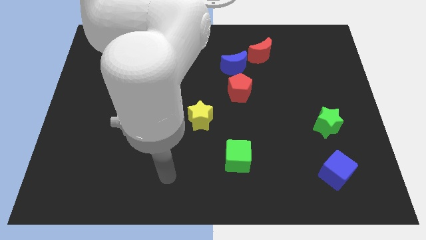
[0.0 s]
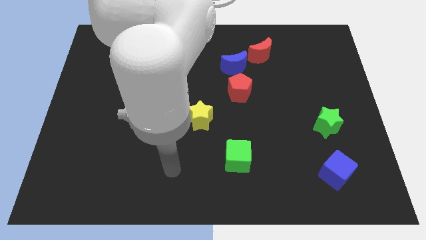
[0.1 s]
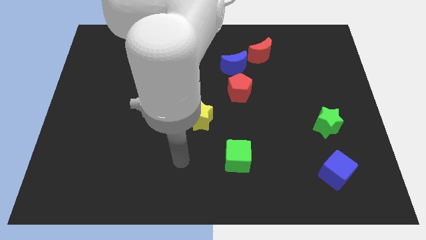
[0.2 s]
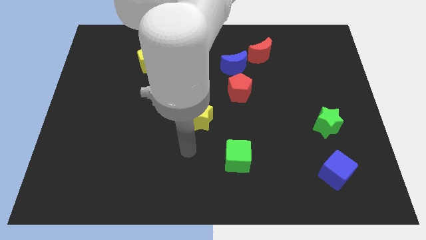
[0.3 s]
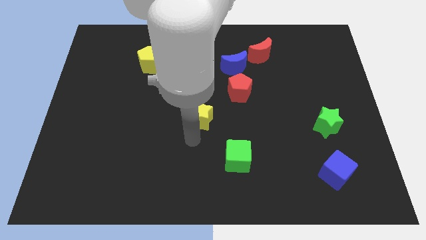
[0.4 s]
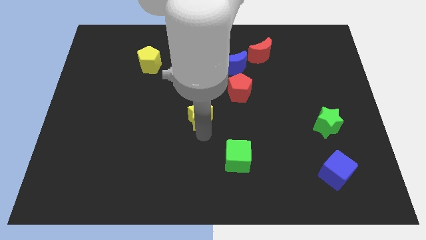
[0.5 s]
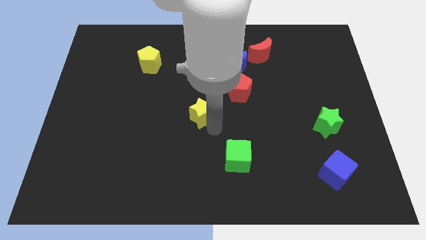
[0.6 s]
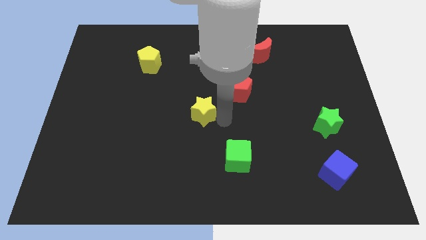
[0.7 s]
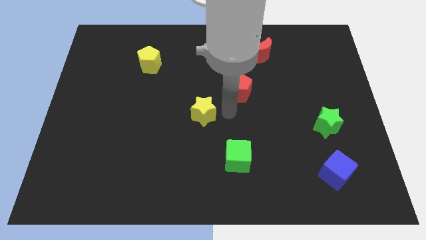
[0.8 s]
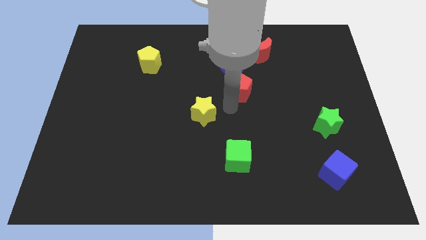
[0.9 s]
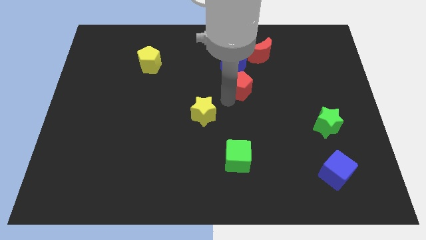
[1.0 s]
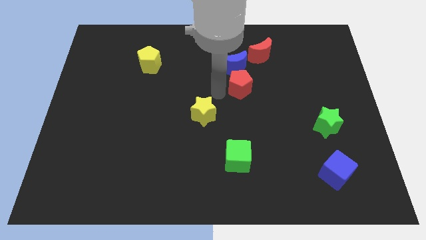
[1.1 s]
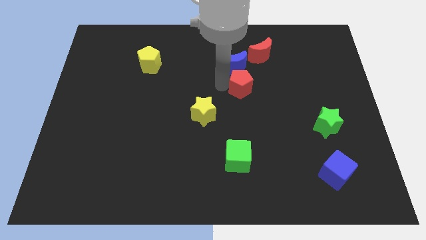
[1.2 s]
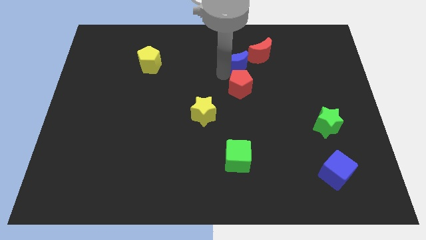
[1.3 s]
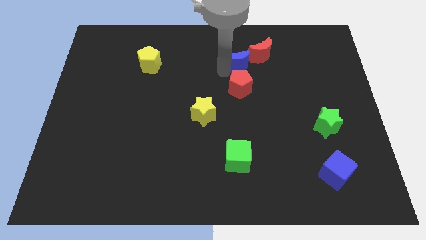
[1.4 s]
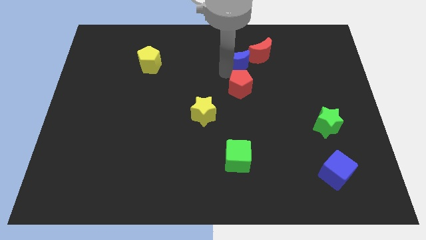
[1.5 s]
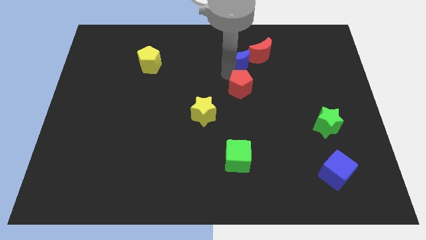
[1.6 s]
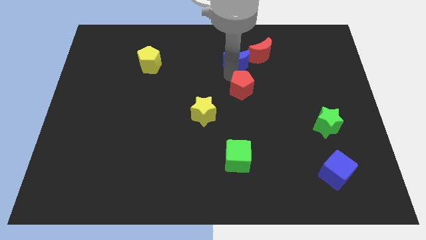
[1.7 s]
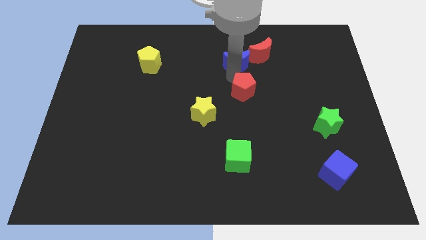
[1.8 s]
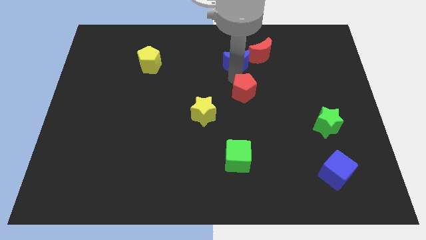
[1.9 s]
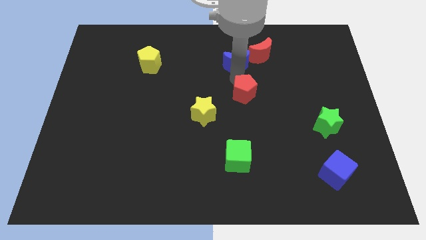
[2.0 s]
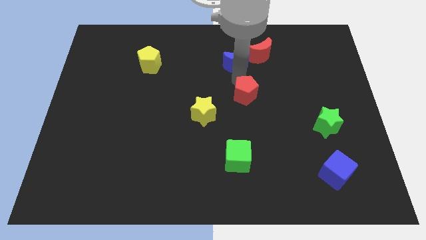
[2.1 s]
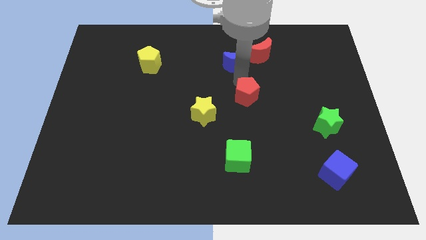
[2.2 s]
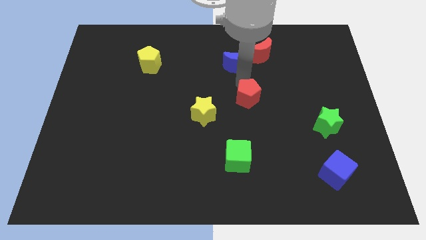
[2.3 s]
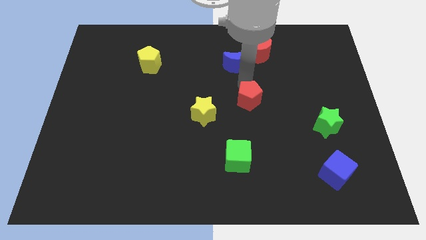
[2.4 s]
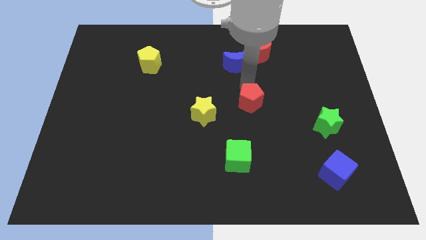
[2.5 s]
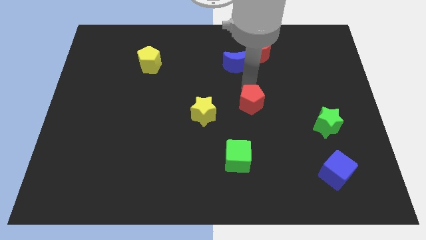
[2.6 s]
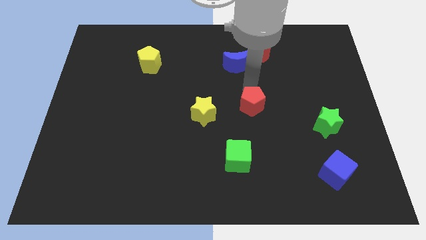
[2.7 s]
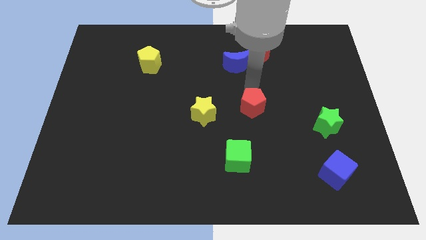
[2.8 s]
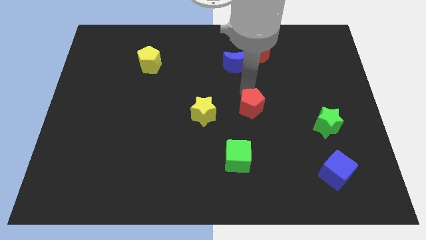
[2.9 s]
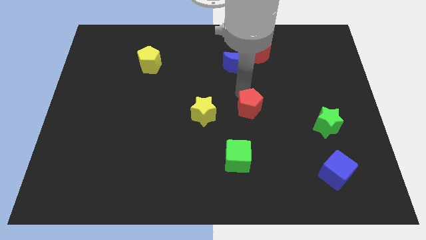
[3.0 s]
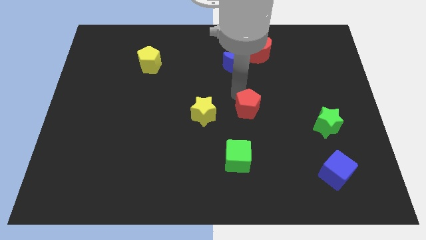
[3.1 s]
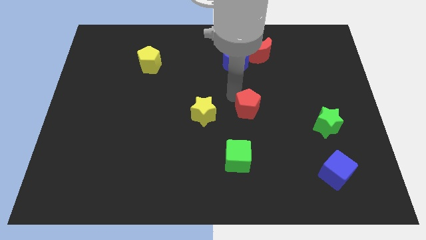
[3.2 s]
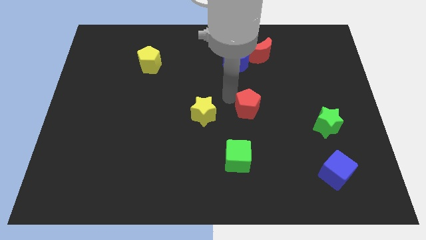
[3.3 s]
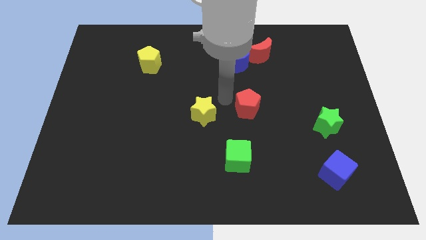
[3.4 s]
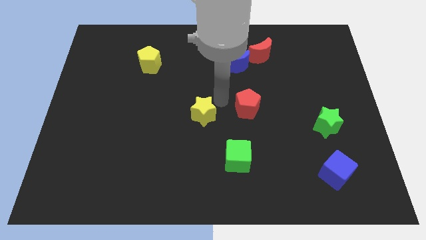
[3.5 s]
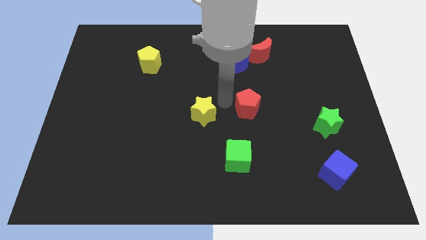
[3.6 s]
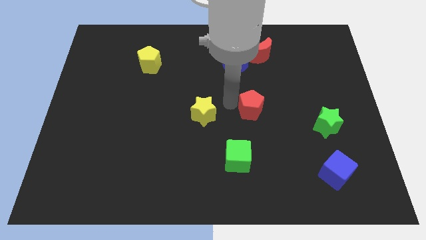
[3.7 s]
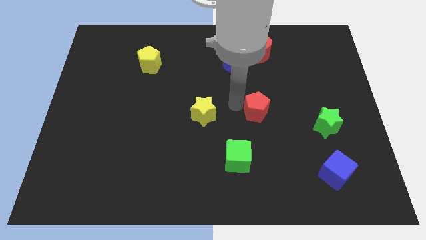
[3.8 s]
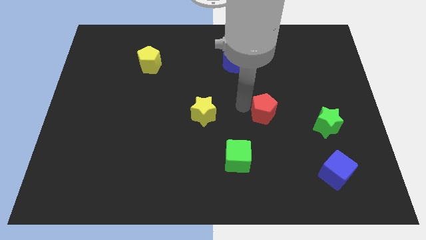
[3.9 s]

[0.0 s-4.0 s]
slide the red pentagon just left of the green star

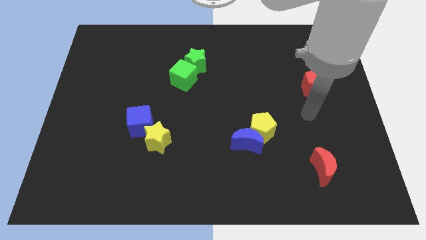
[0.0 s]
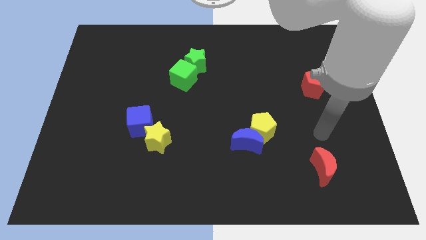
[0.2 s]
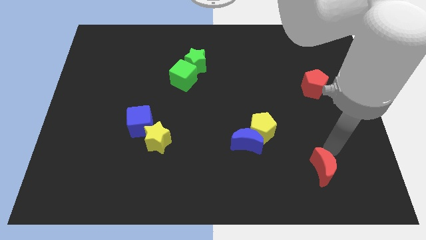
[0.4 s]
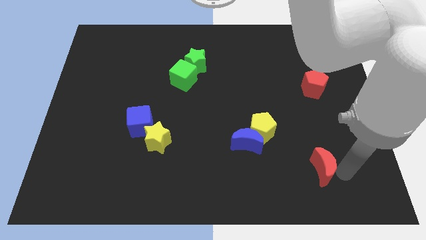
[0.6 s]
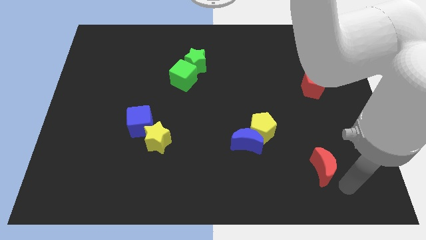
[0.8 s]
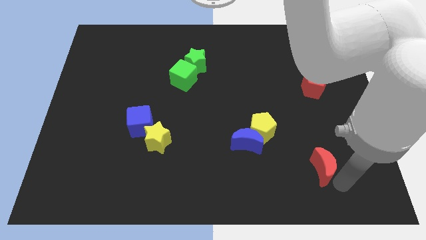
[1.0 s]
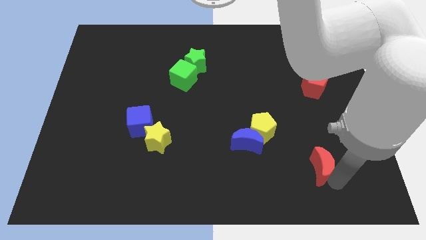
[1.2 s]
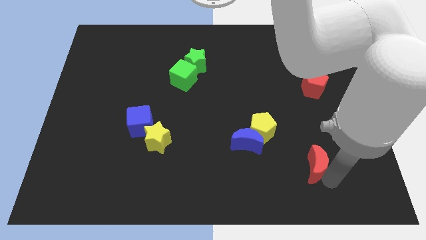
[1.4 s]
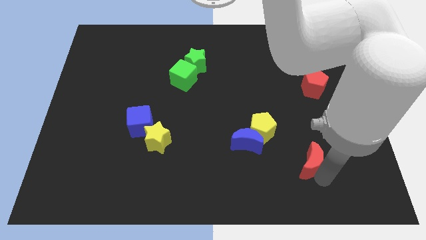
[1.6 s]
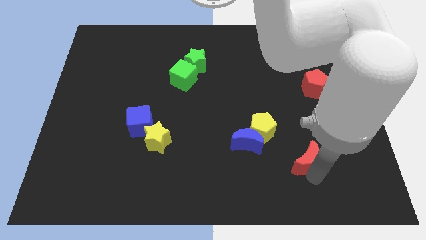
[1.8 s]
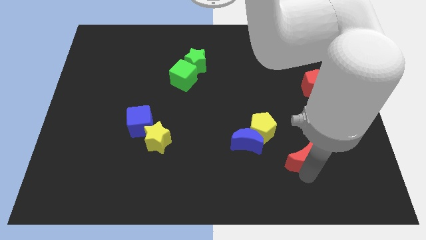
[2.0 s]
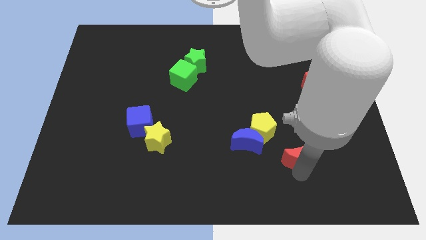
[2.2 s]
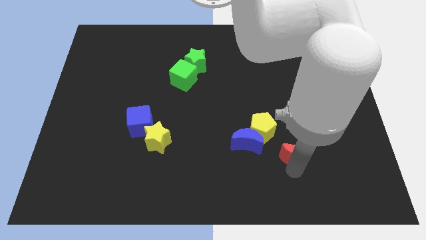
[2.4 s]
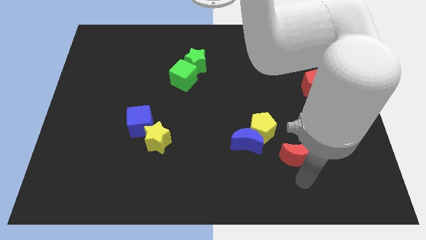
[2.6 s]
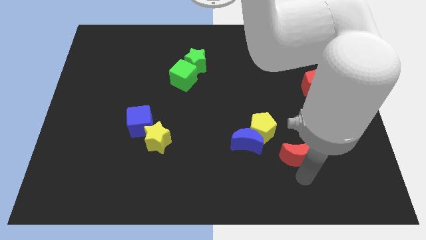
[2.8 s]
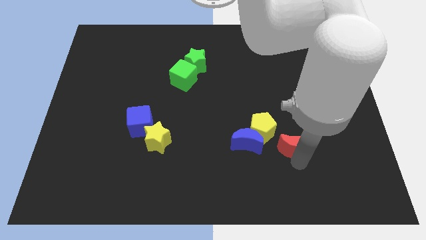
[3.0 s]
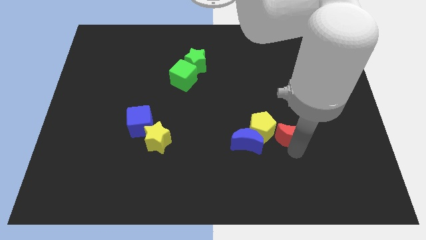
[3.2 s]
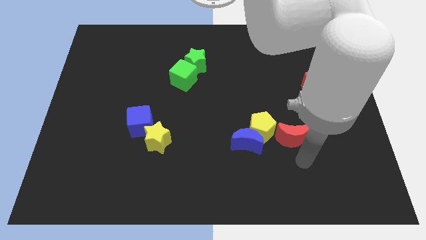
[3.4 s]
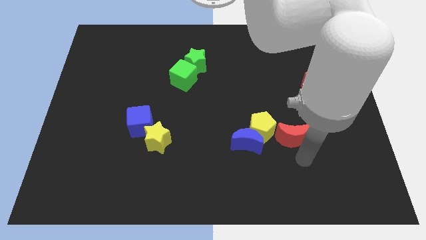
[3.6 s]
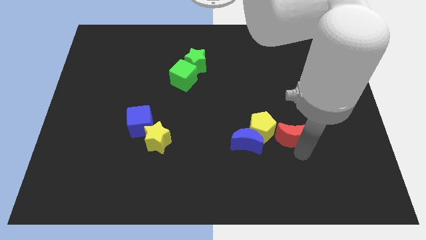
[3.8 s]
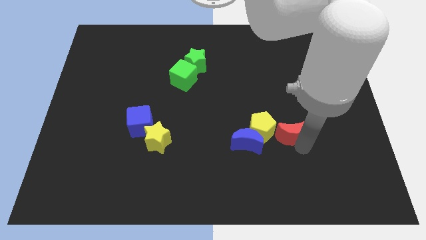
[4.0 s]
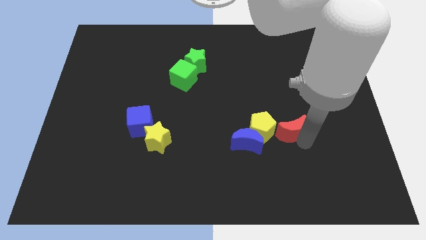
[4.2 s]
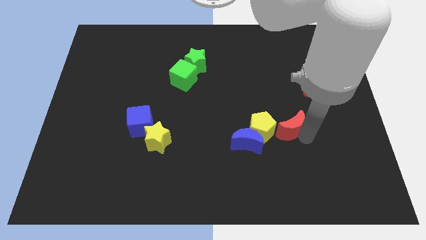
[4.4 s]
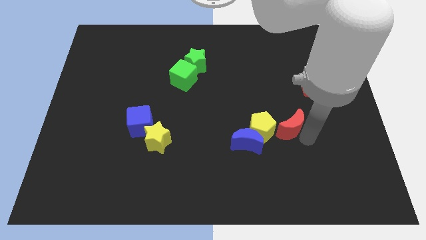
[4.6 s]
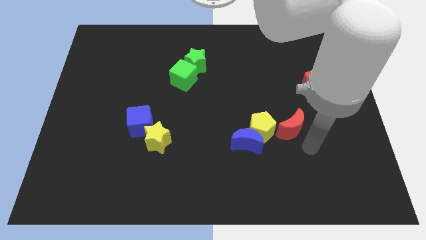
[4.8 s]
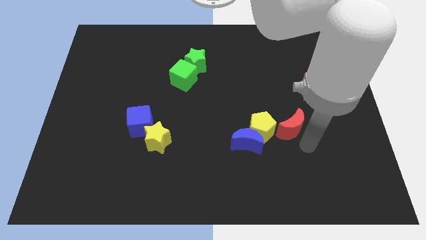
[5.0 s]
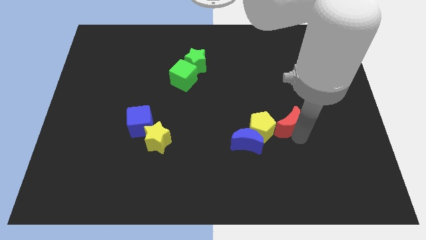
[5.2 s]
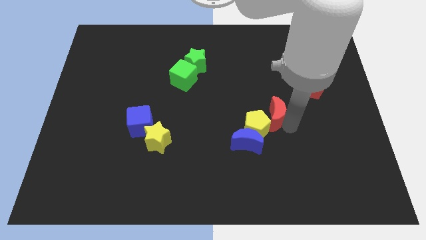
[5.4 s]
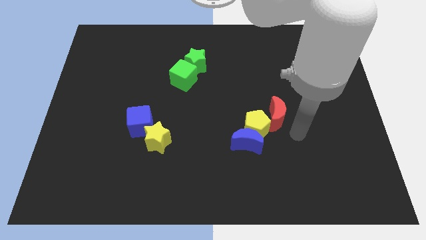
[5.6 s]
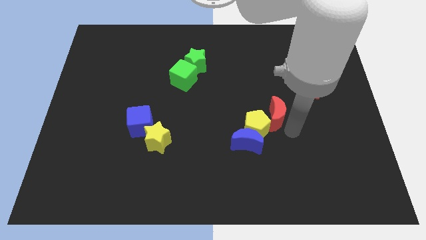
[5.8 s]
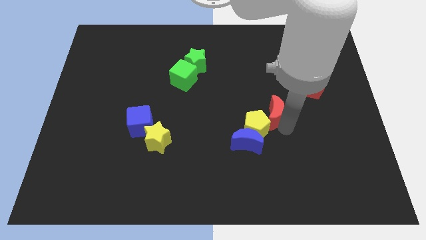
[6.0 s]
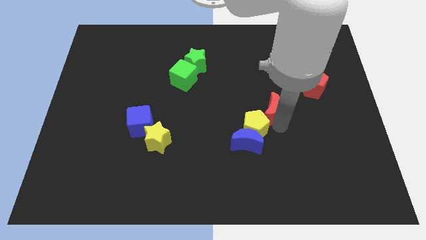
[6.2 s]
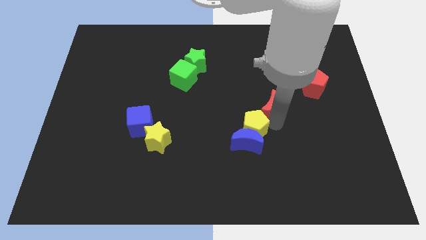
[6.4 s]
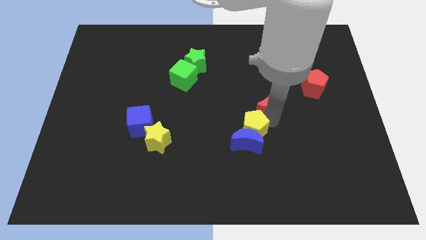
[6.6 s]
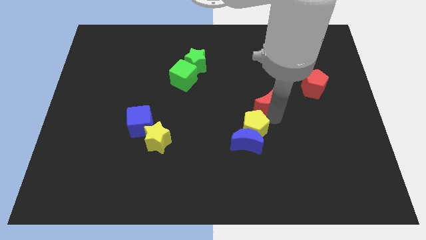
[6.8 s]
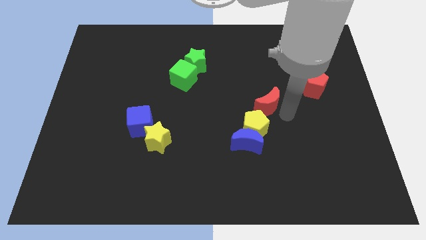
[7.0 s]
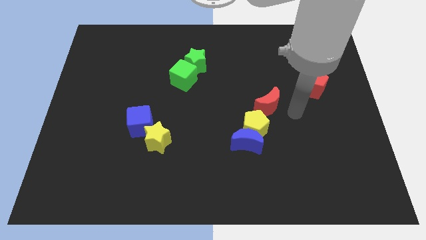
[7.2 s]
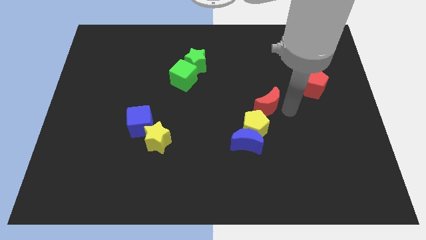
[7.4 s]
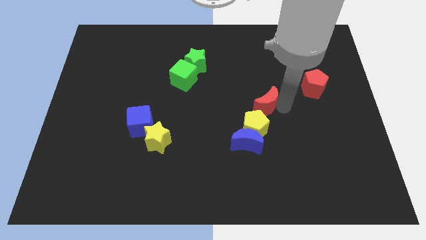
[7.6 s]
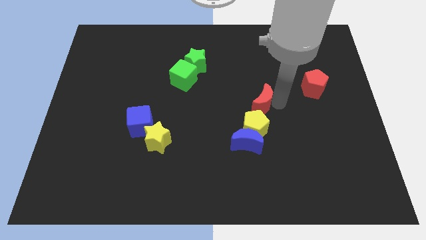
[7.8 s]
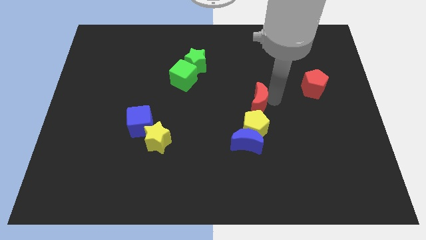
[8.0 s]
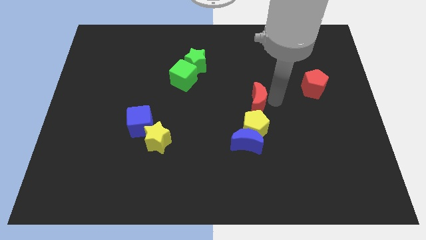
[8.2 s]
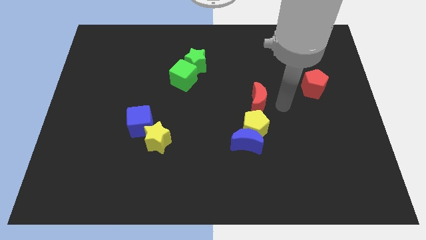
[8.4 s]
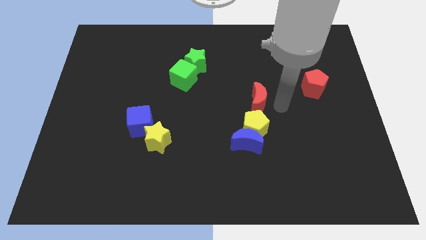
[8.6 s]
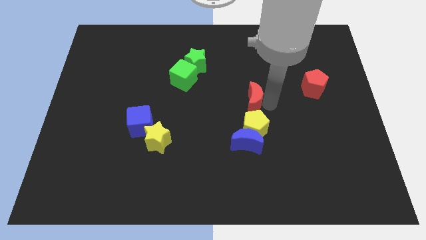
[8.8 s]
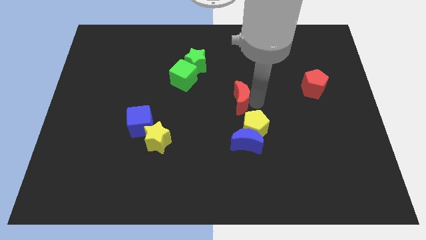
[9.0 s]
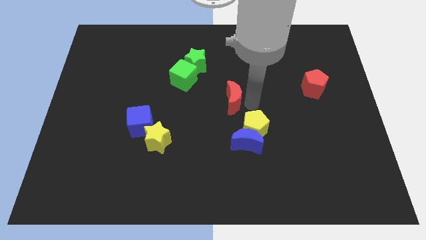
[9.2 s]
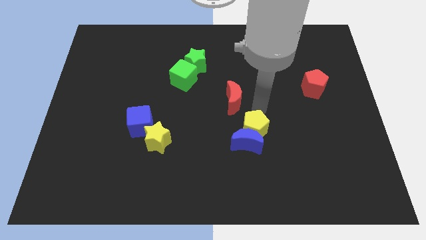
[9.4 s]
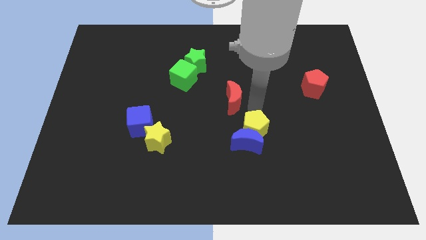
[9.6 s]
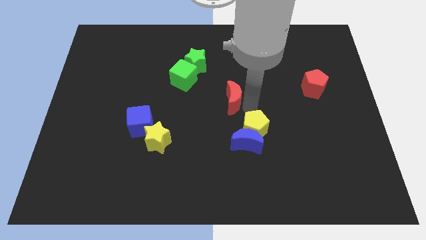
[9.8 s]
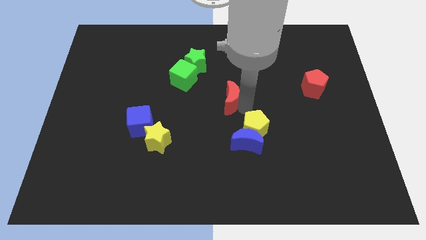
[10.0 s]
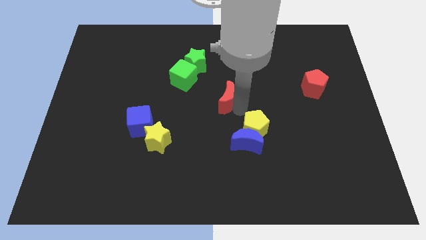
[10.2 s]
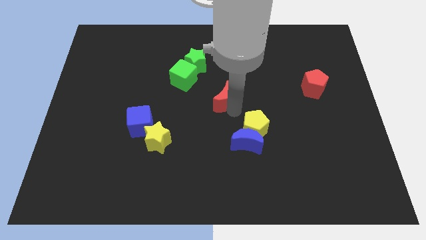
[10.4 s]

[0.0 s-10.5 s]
push the red moon diagonally down and to the right of the green cube
